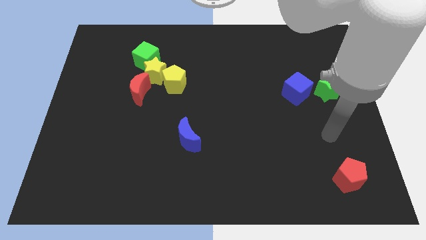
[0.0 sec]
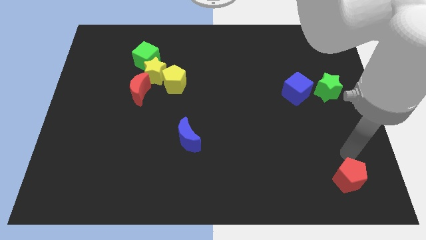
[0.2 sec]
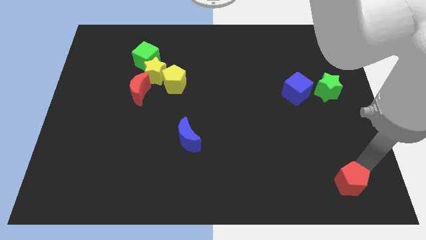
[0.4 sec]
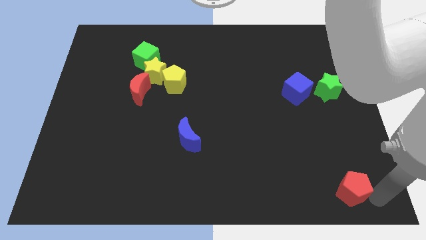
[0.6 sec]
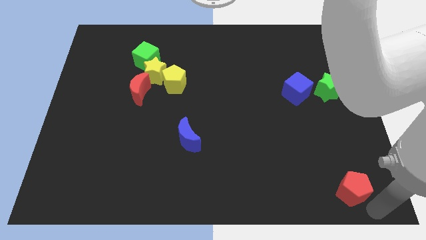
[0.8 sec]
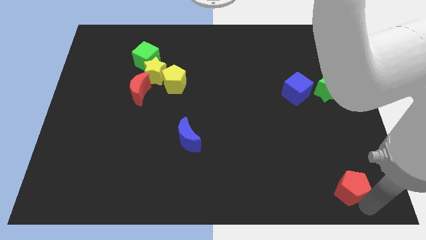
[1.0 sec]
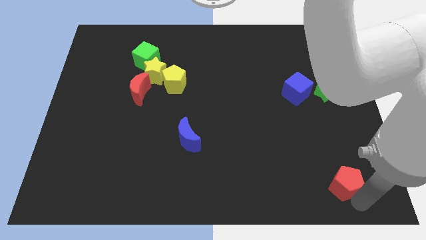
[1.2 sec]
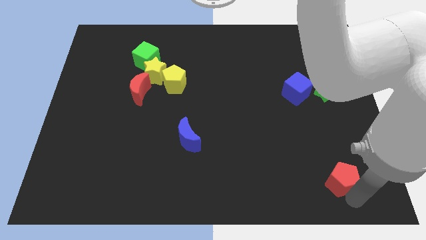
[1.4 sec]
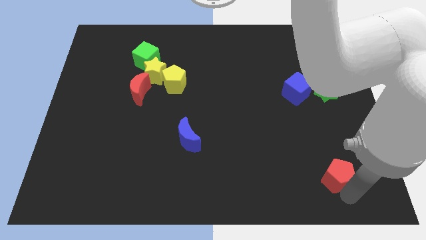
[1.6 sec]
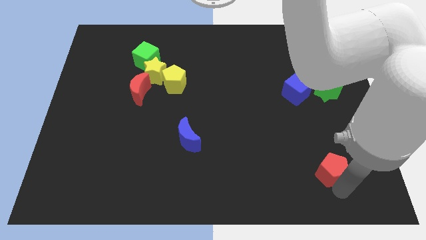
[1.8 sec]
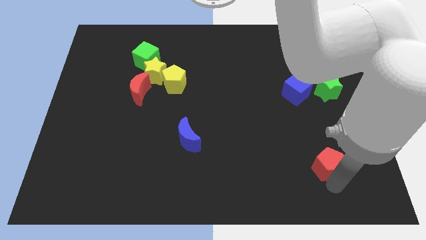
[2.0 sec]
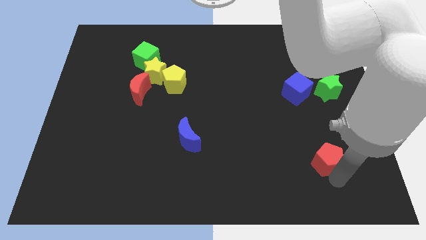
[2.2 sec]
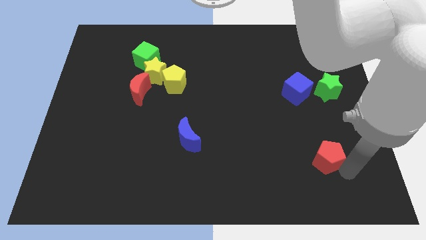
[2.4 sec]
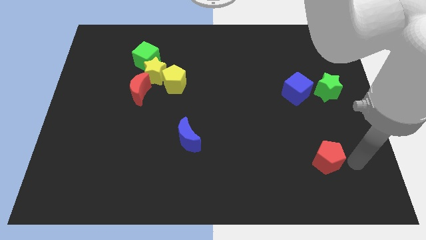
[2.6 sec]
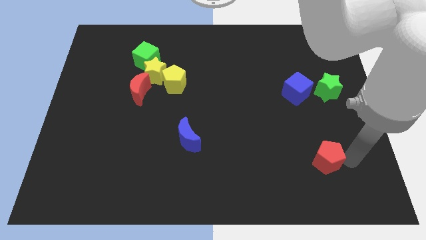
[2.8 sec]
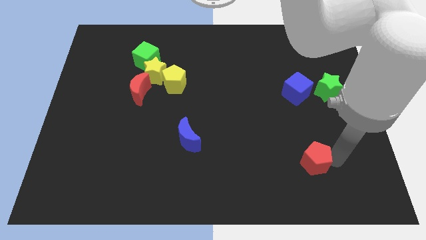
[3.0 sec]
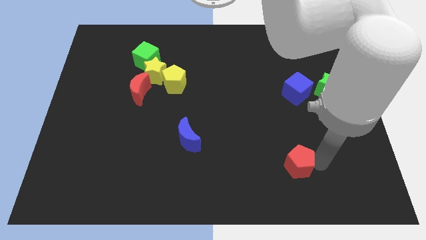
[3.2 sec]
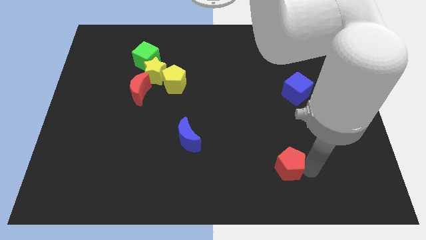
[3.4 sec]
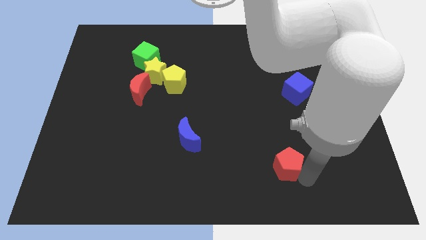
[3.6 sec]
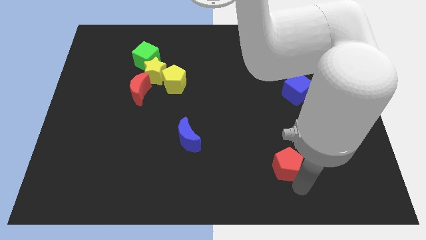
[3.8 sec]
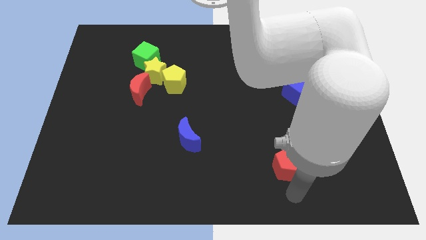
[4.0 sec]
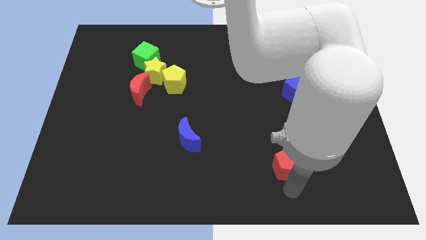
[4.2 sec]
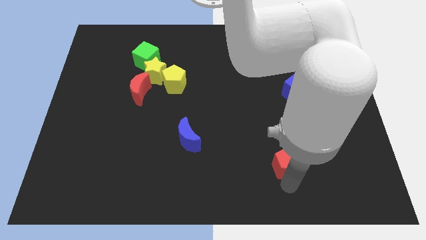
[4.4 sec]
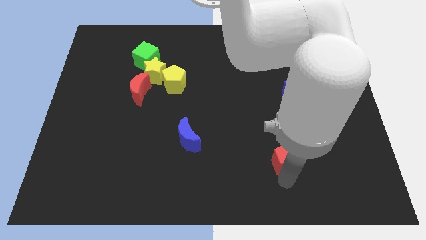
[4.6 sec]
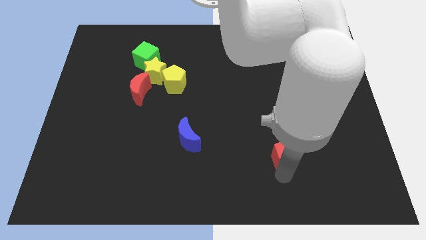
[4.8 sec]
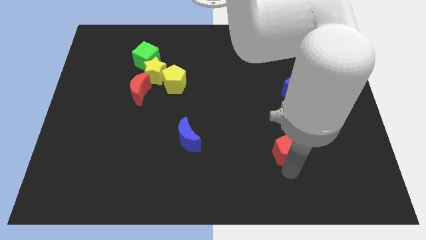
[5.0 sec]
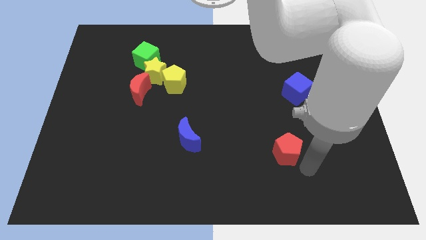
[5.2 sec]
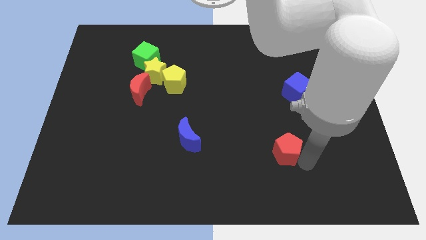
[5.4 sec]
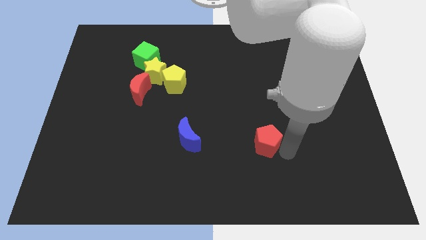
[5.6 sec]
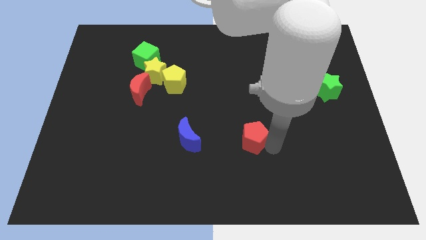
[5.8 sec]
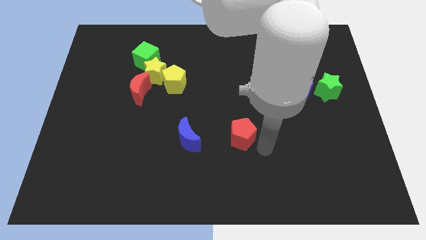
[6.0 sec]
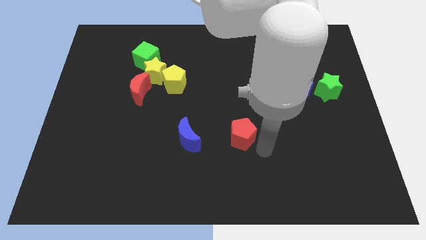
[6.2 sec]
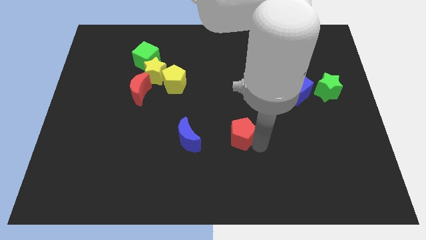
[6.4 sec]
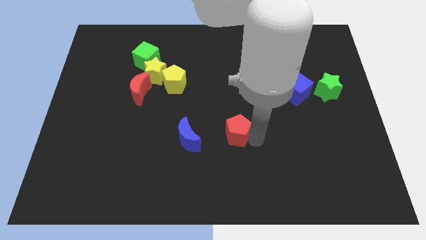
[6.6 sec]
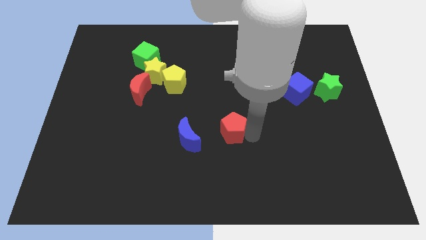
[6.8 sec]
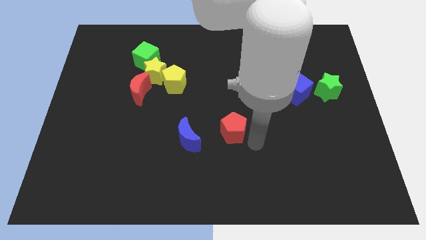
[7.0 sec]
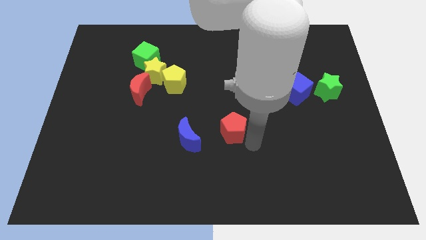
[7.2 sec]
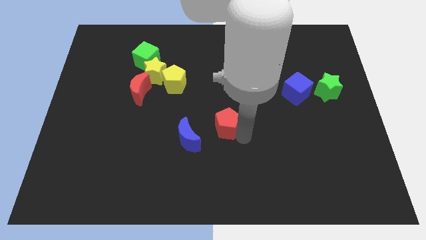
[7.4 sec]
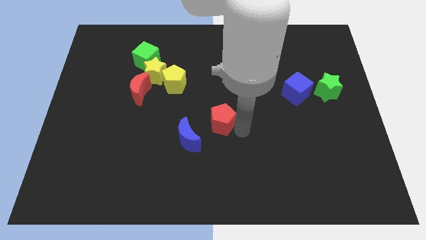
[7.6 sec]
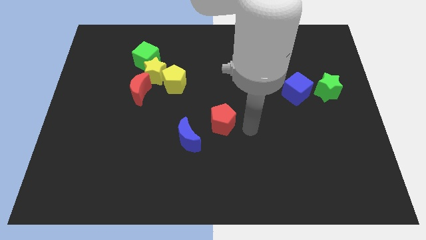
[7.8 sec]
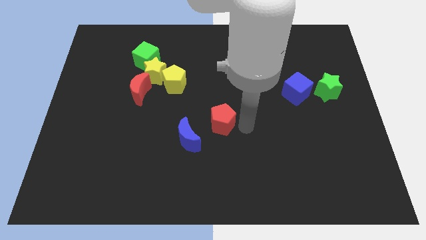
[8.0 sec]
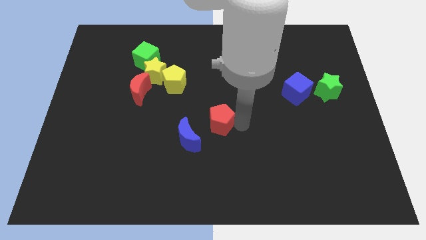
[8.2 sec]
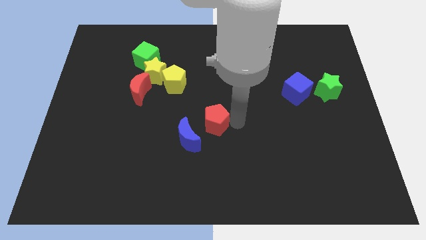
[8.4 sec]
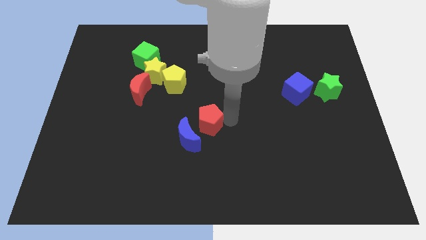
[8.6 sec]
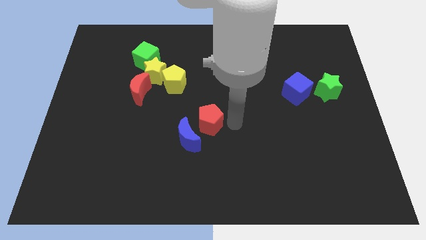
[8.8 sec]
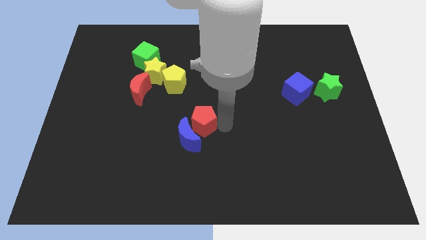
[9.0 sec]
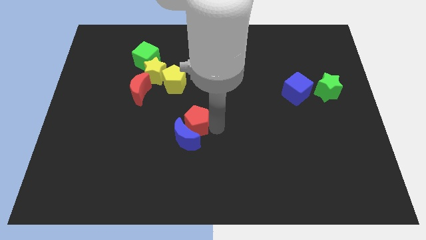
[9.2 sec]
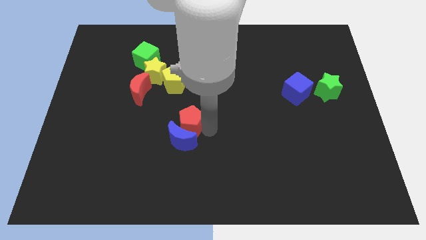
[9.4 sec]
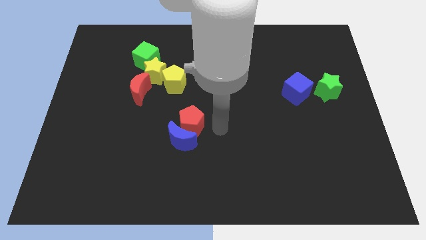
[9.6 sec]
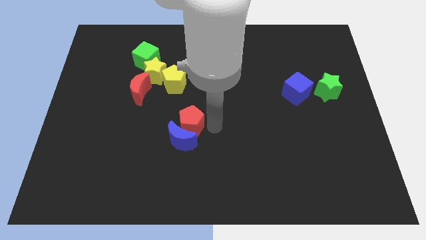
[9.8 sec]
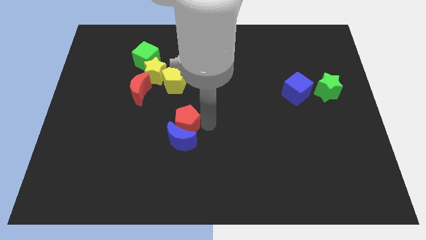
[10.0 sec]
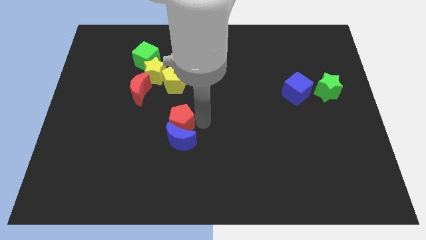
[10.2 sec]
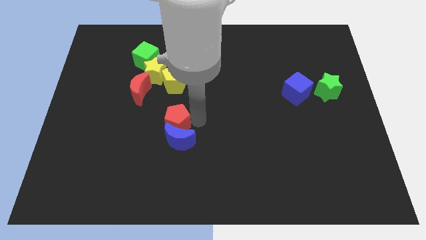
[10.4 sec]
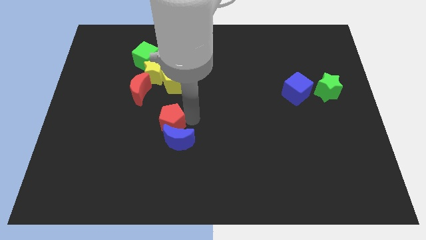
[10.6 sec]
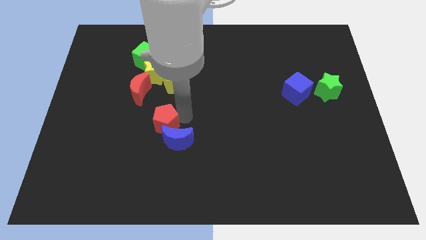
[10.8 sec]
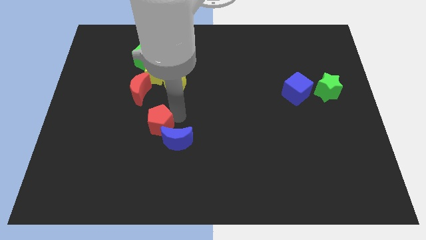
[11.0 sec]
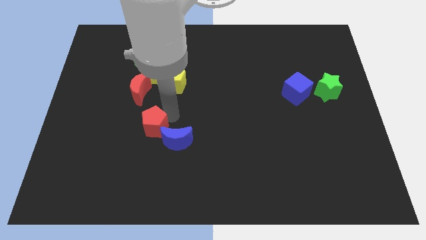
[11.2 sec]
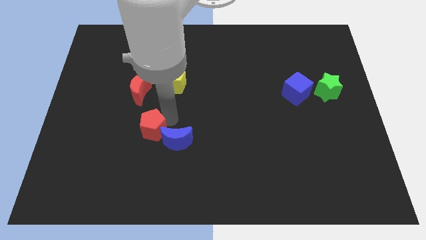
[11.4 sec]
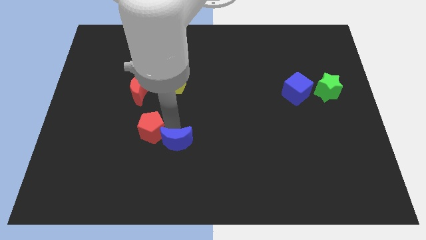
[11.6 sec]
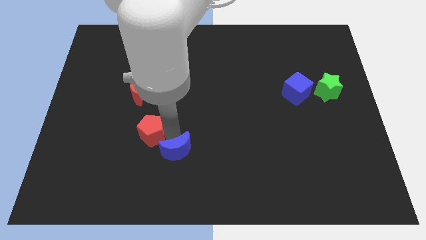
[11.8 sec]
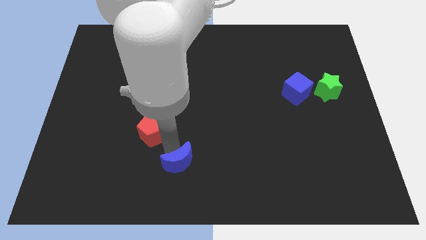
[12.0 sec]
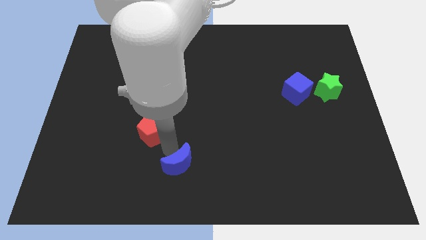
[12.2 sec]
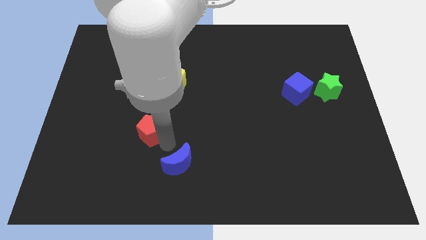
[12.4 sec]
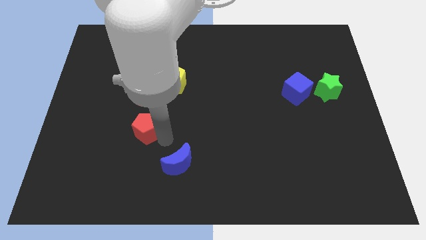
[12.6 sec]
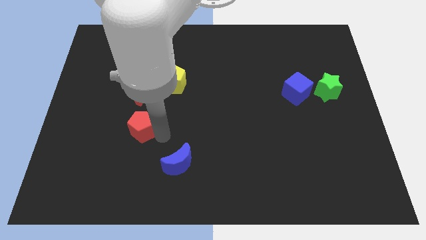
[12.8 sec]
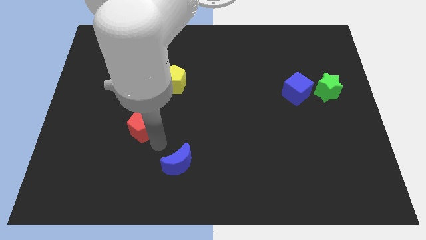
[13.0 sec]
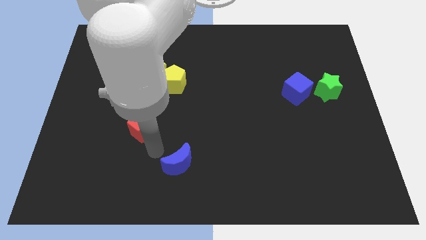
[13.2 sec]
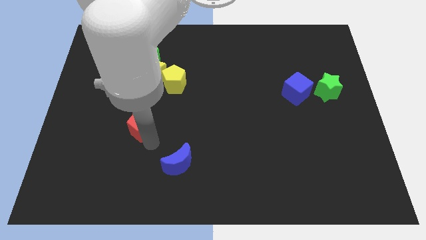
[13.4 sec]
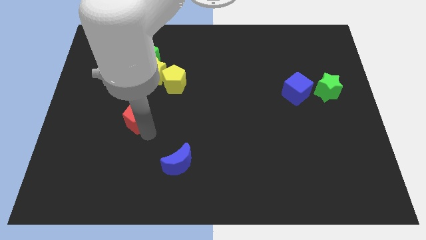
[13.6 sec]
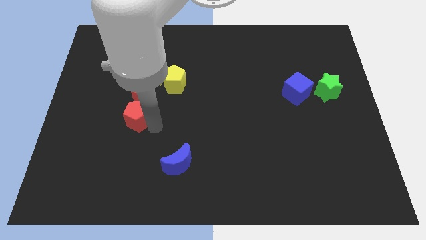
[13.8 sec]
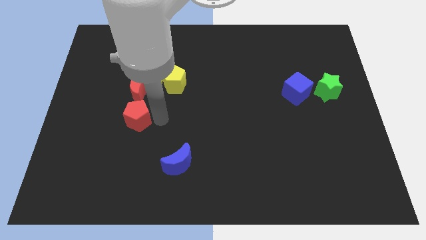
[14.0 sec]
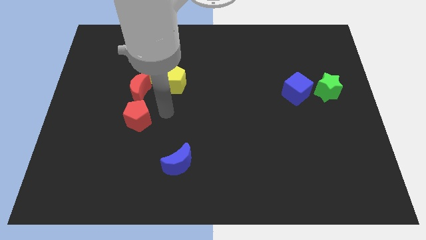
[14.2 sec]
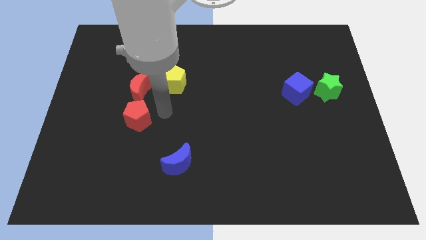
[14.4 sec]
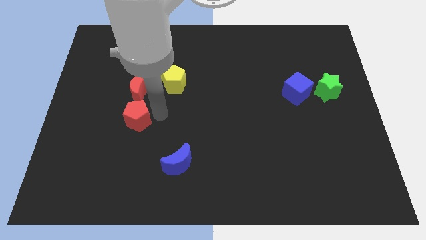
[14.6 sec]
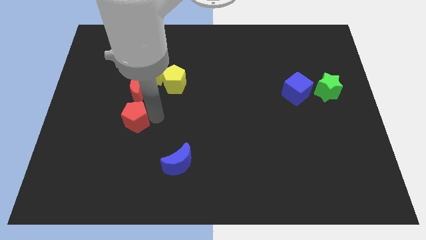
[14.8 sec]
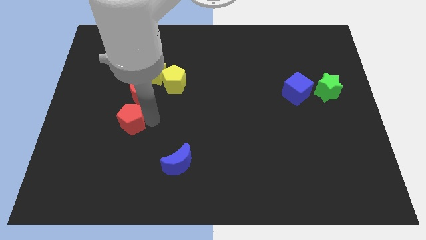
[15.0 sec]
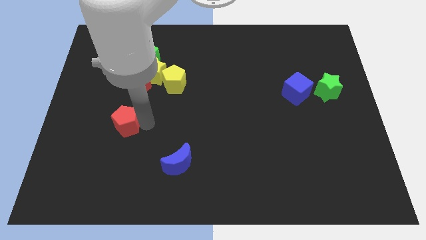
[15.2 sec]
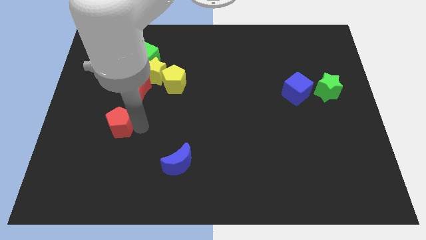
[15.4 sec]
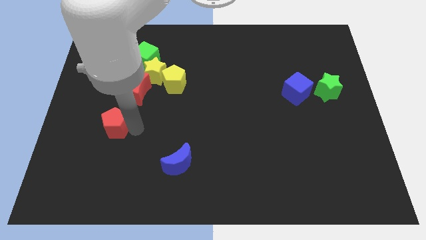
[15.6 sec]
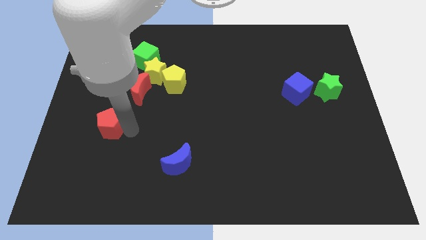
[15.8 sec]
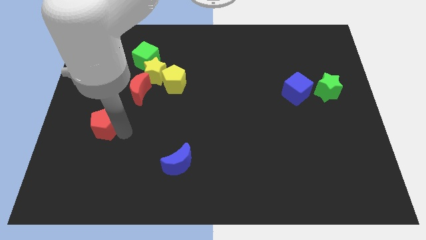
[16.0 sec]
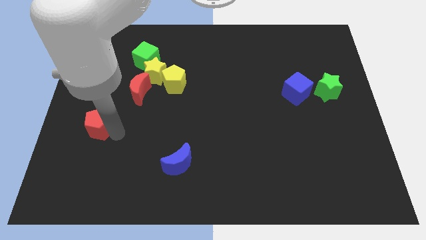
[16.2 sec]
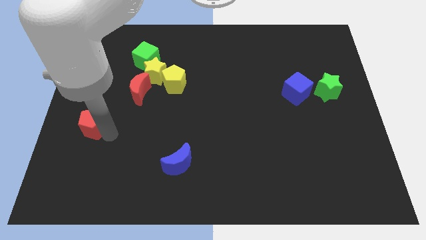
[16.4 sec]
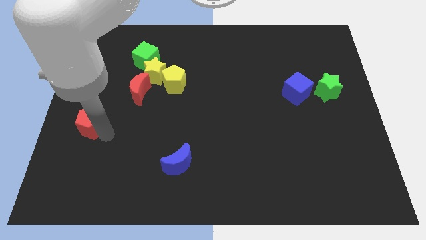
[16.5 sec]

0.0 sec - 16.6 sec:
push the red pentagon to the center left
